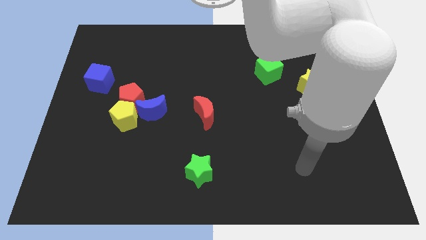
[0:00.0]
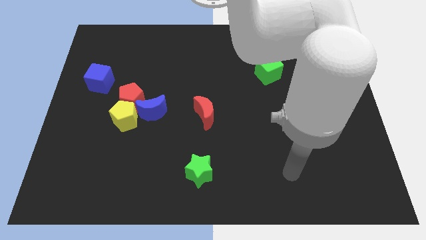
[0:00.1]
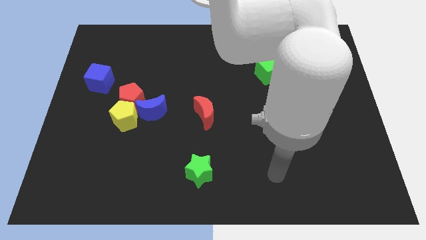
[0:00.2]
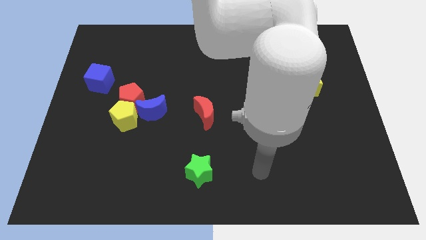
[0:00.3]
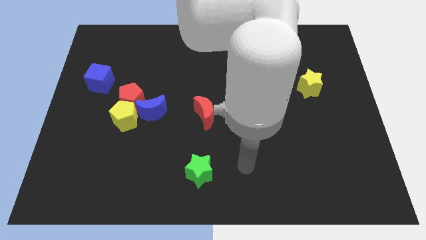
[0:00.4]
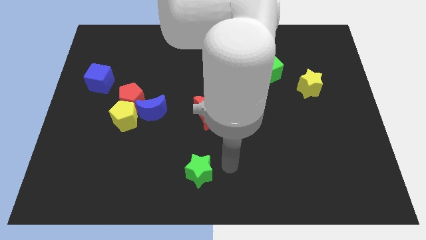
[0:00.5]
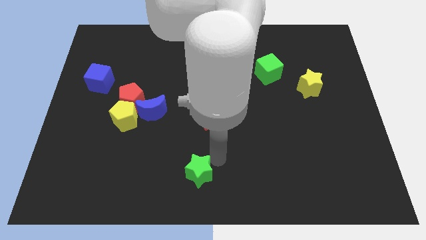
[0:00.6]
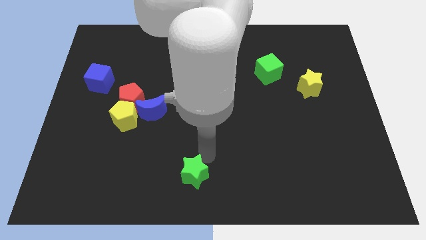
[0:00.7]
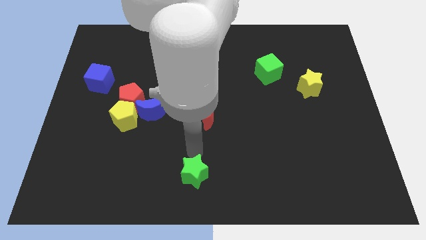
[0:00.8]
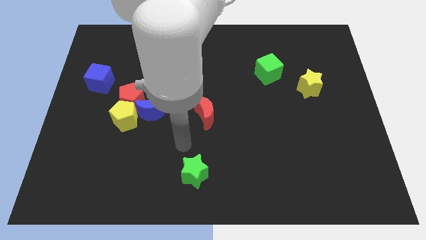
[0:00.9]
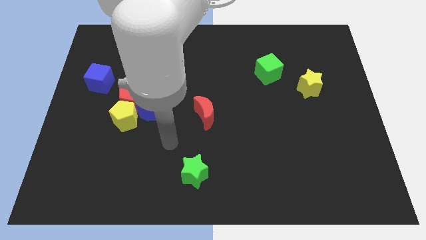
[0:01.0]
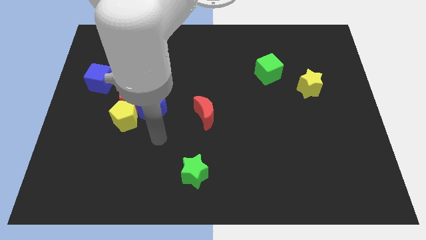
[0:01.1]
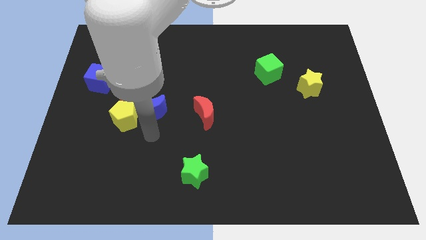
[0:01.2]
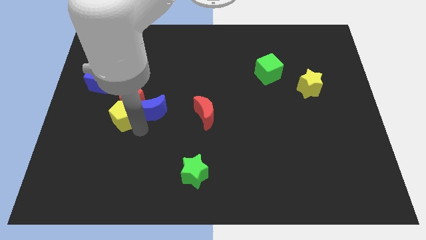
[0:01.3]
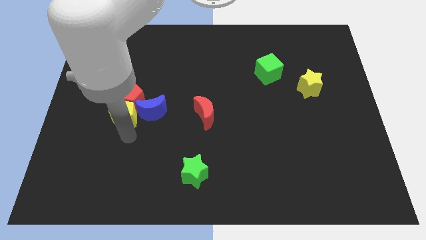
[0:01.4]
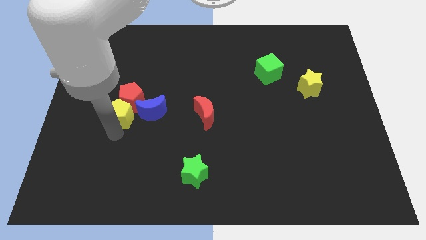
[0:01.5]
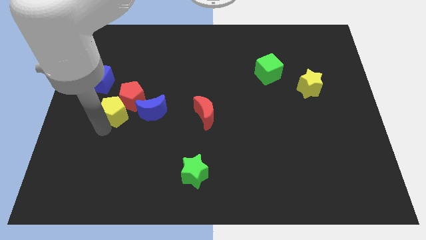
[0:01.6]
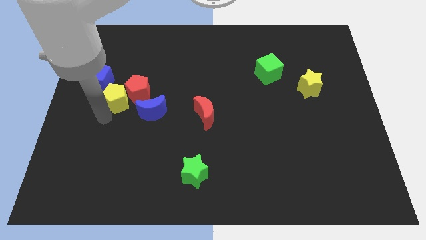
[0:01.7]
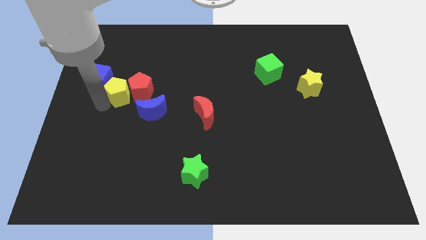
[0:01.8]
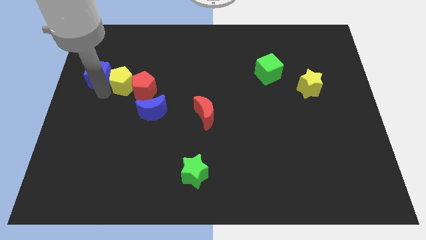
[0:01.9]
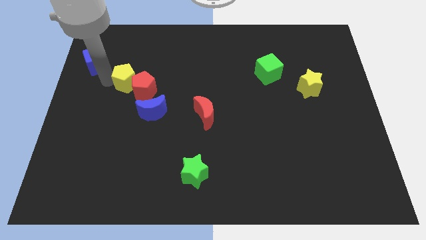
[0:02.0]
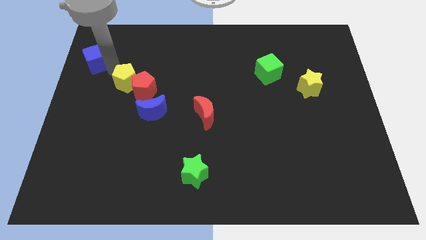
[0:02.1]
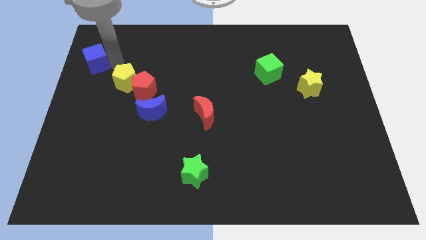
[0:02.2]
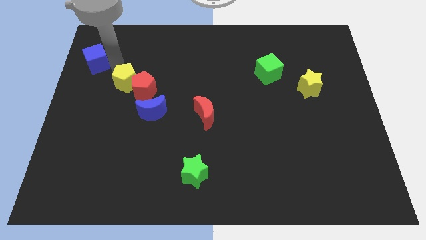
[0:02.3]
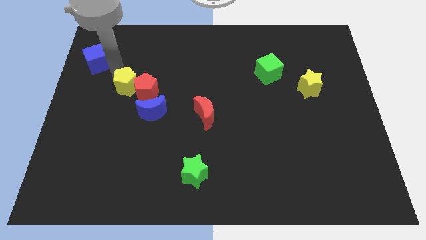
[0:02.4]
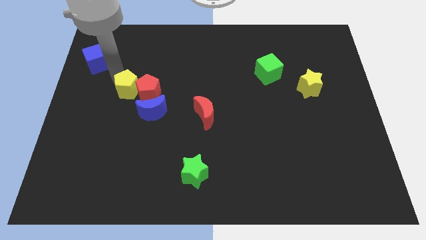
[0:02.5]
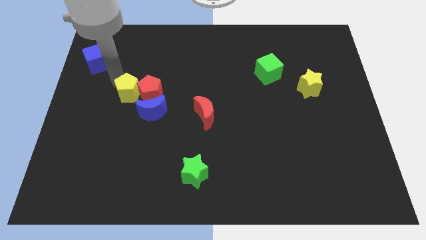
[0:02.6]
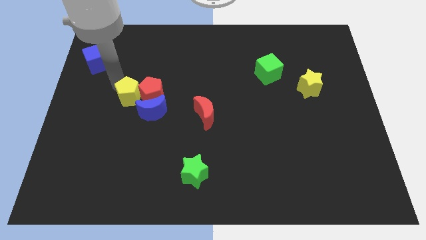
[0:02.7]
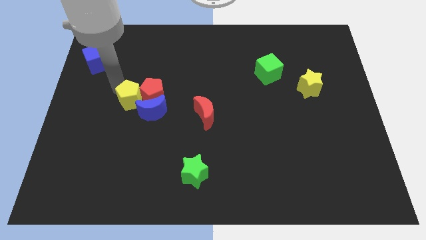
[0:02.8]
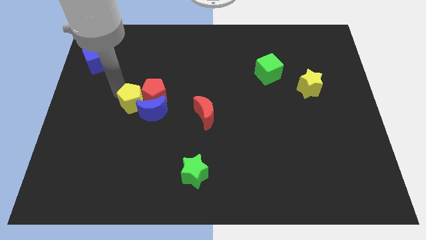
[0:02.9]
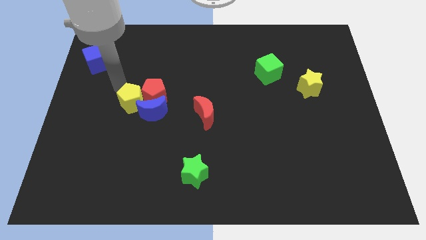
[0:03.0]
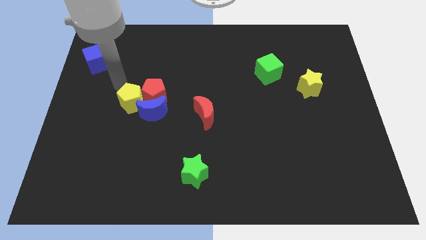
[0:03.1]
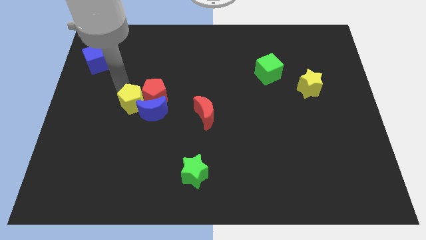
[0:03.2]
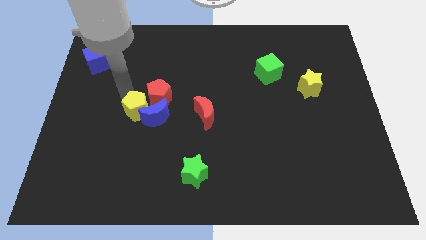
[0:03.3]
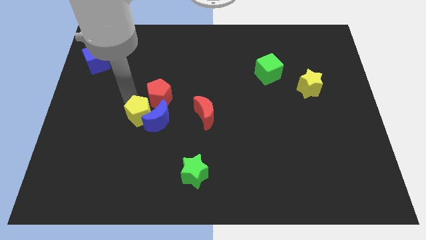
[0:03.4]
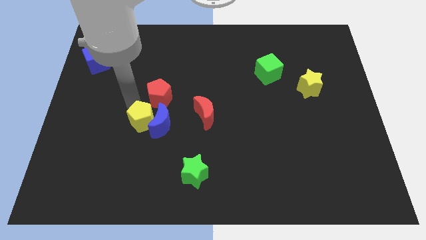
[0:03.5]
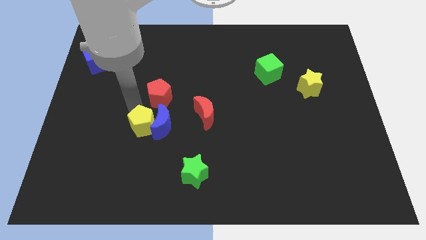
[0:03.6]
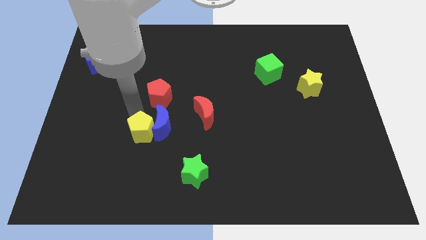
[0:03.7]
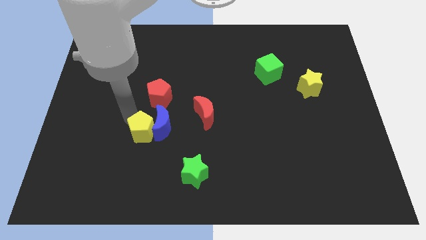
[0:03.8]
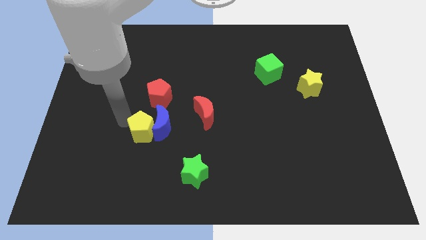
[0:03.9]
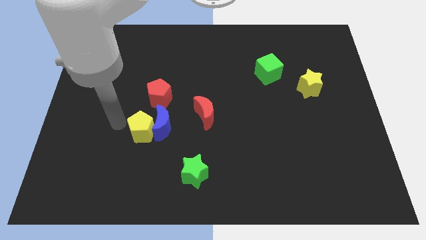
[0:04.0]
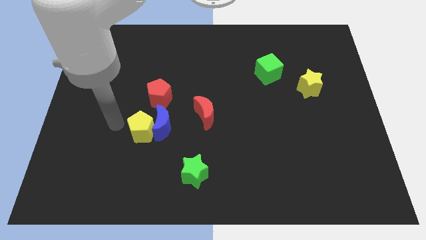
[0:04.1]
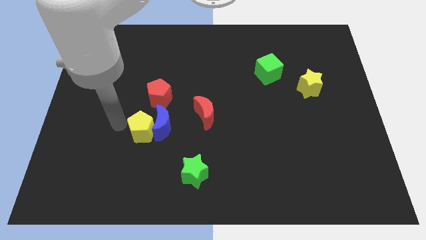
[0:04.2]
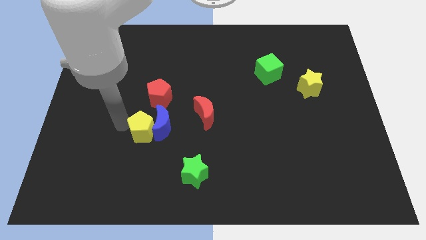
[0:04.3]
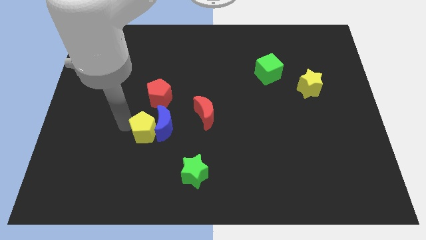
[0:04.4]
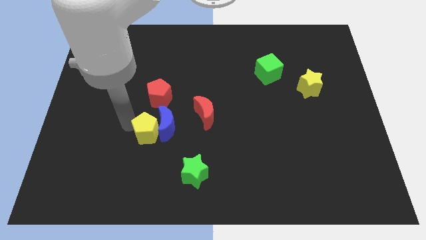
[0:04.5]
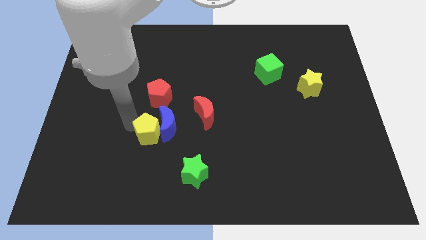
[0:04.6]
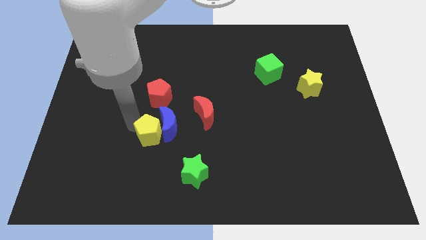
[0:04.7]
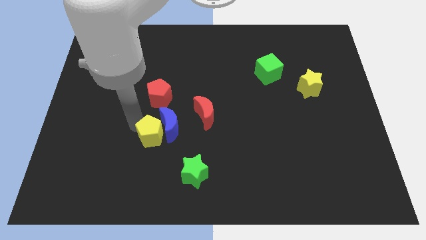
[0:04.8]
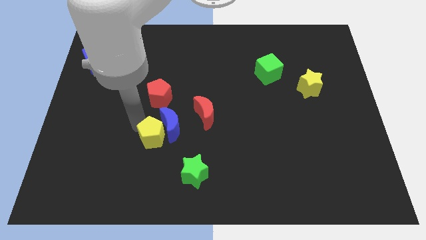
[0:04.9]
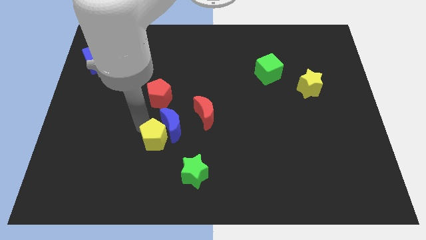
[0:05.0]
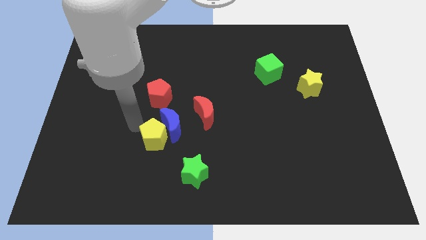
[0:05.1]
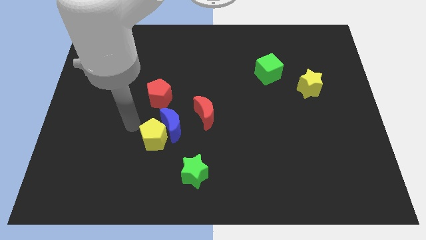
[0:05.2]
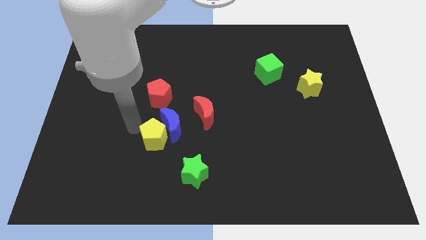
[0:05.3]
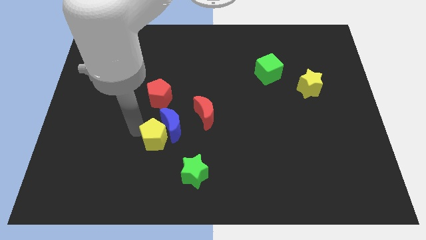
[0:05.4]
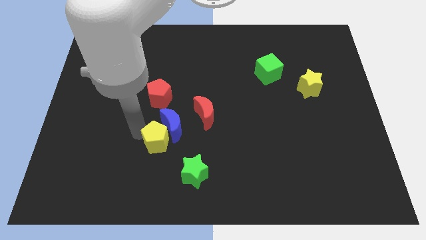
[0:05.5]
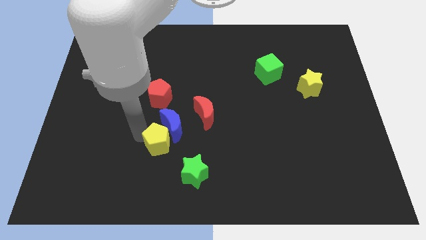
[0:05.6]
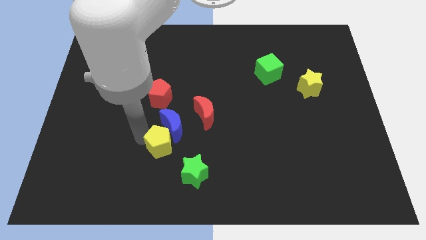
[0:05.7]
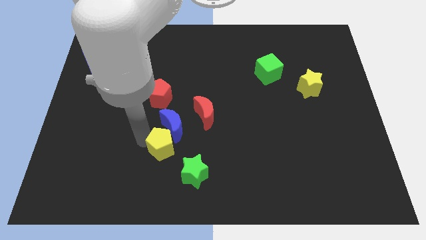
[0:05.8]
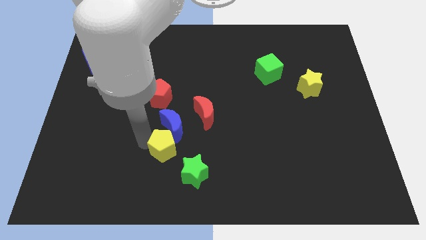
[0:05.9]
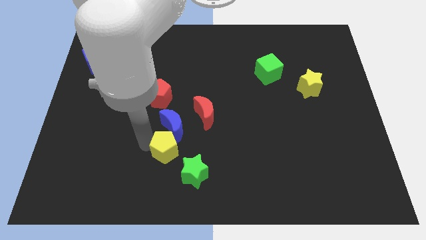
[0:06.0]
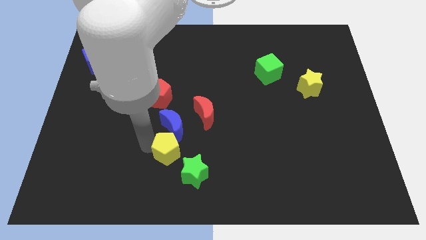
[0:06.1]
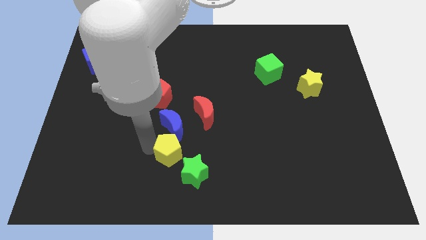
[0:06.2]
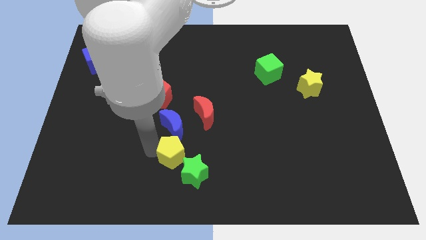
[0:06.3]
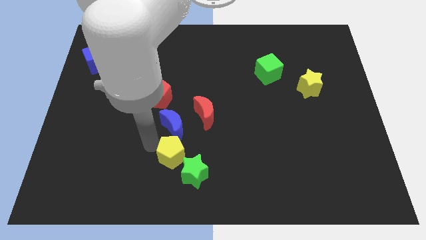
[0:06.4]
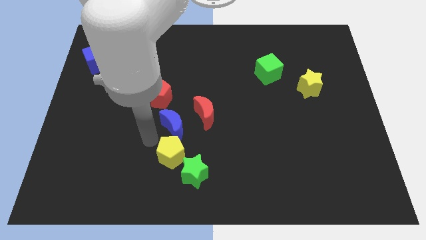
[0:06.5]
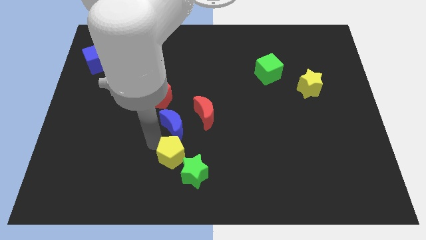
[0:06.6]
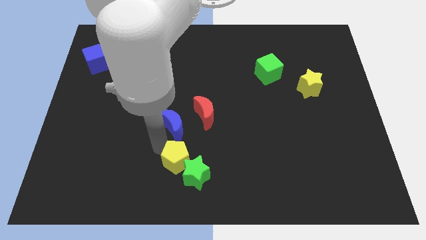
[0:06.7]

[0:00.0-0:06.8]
put the yellow pentagon towards the green star

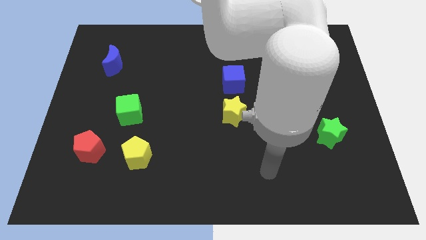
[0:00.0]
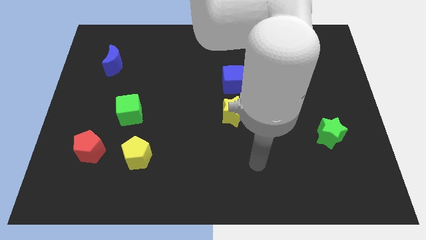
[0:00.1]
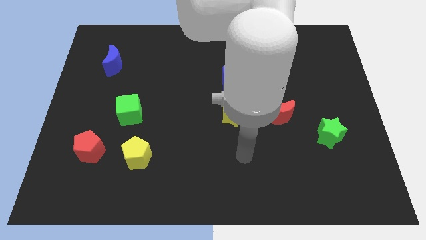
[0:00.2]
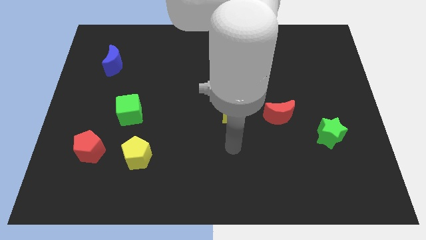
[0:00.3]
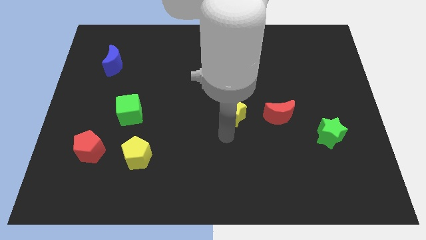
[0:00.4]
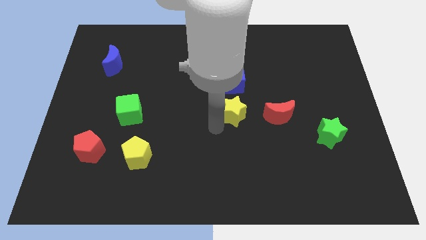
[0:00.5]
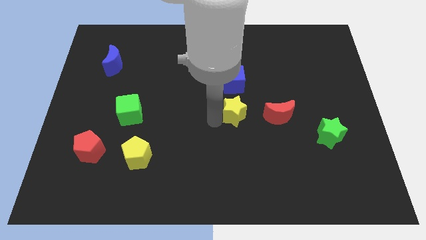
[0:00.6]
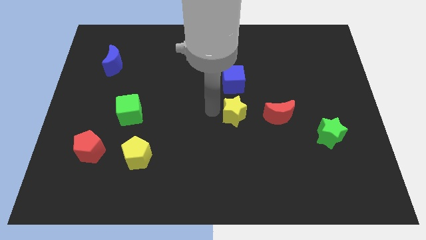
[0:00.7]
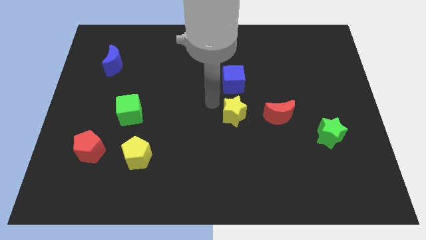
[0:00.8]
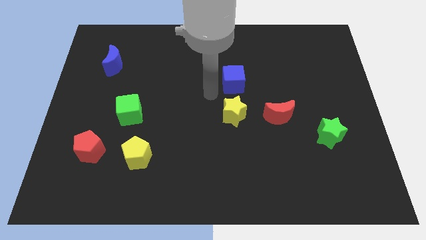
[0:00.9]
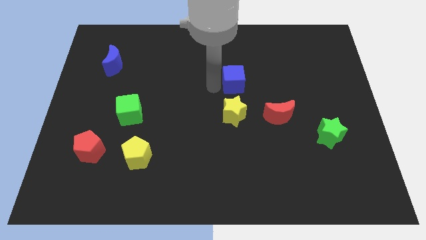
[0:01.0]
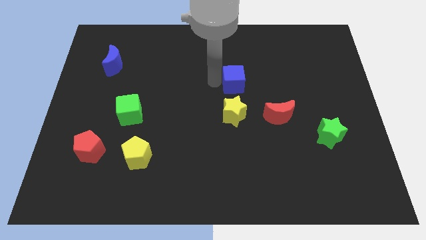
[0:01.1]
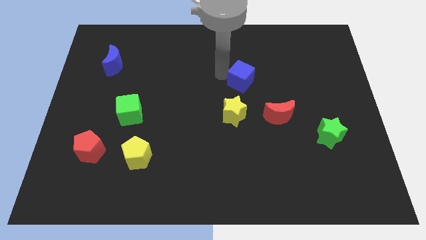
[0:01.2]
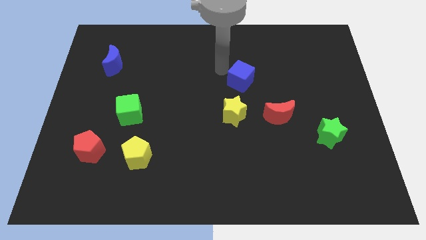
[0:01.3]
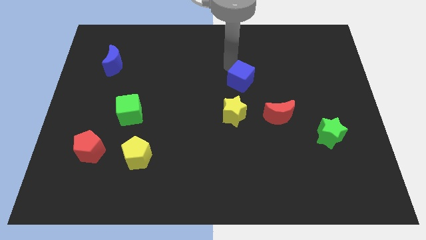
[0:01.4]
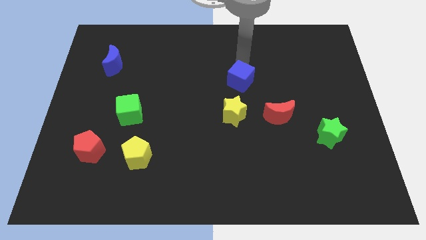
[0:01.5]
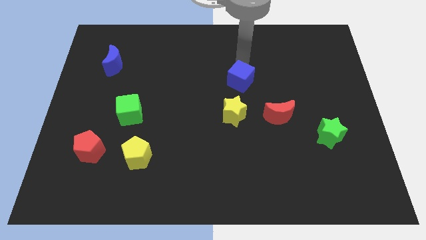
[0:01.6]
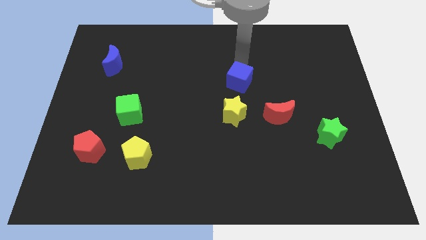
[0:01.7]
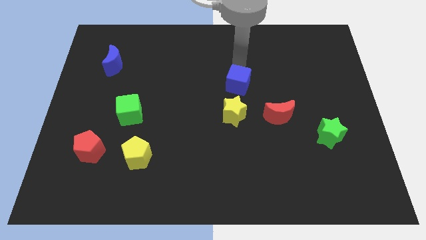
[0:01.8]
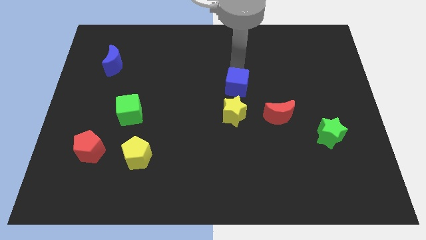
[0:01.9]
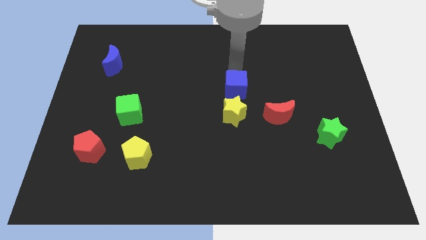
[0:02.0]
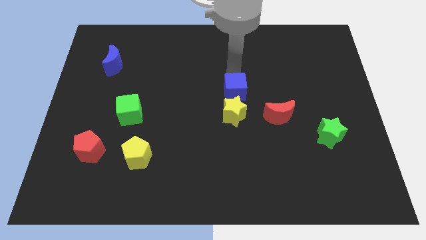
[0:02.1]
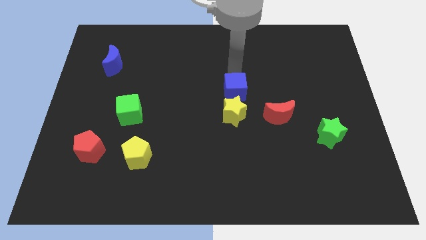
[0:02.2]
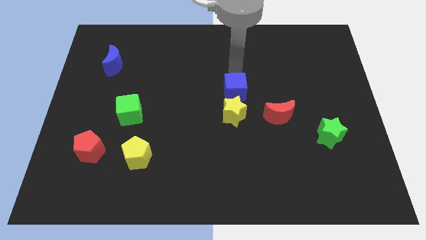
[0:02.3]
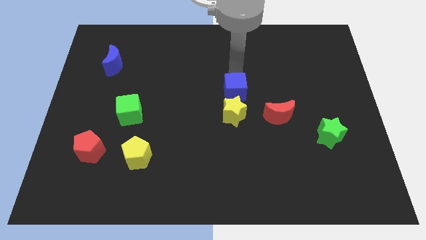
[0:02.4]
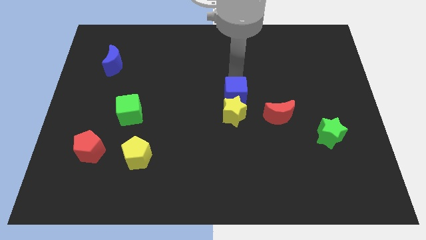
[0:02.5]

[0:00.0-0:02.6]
slide the blue cube to the yellow star
